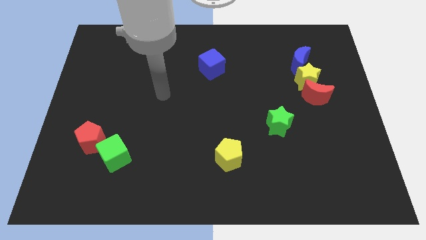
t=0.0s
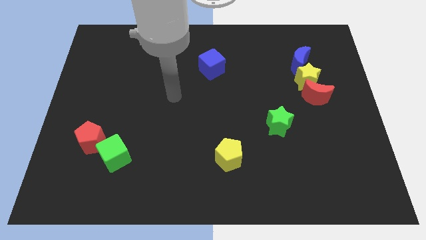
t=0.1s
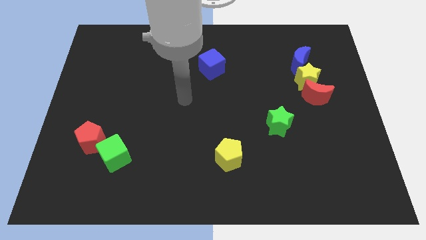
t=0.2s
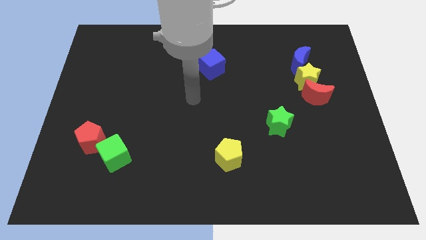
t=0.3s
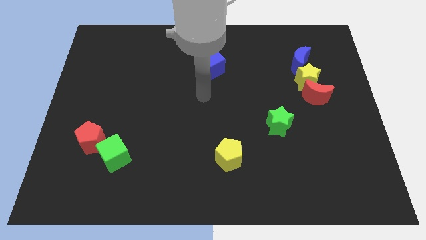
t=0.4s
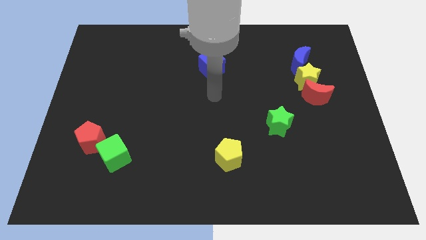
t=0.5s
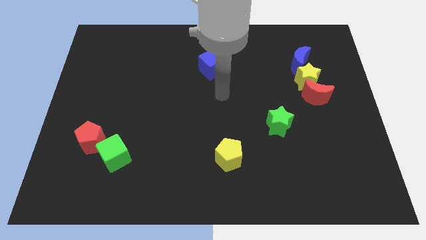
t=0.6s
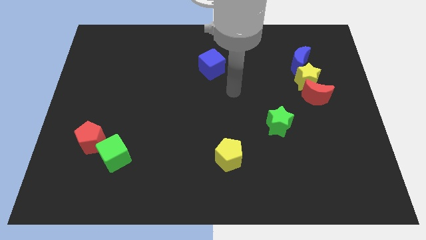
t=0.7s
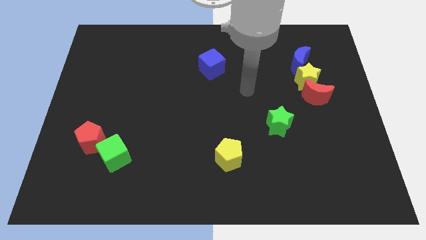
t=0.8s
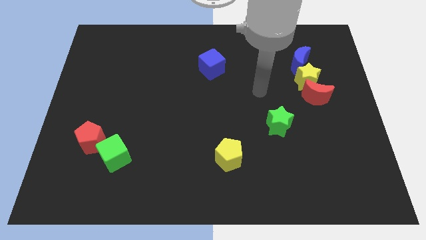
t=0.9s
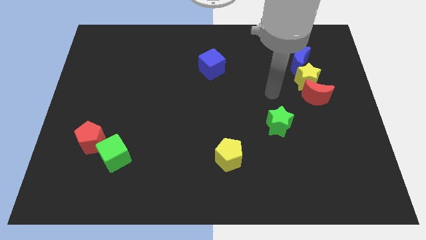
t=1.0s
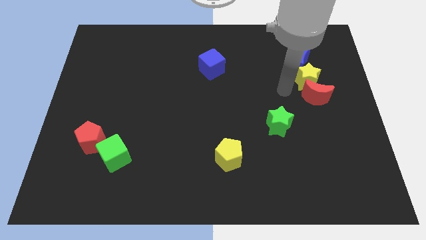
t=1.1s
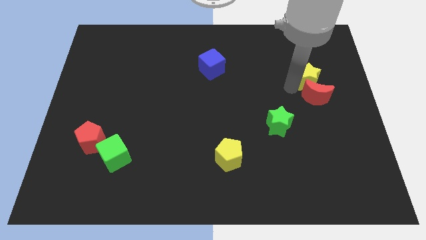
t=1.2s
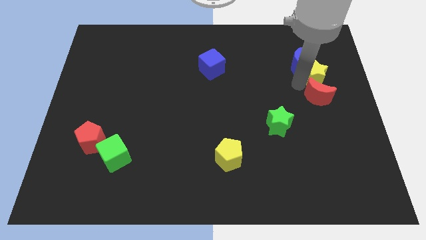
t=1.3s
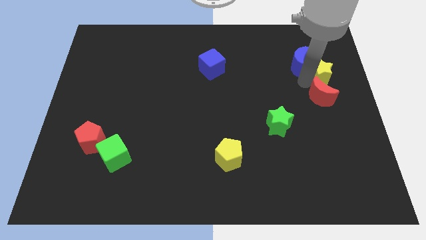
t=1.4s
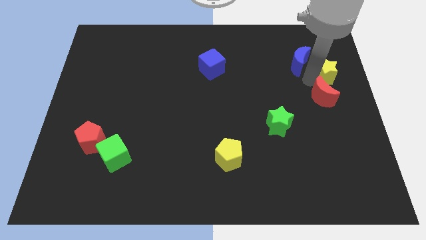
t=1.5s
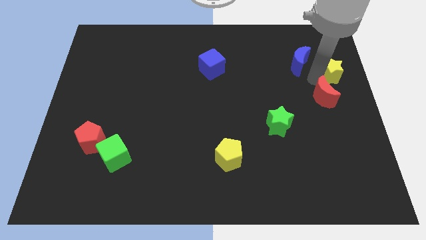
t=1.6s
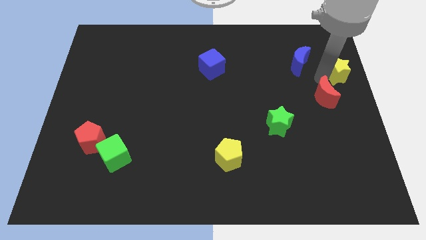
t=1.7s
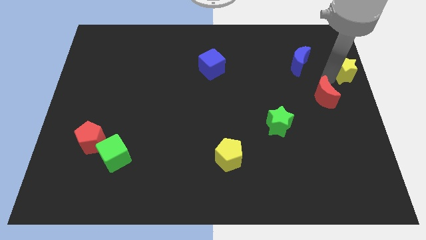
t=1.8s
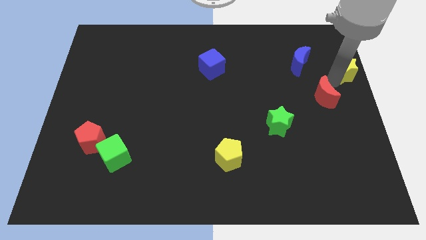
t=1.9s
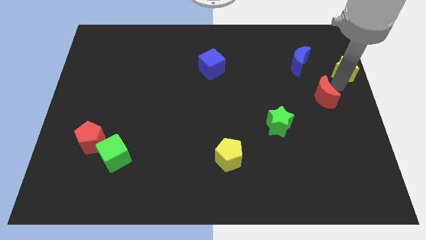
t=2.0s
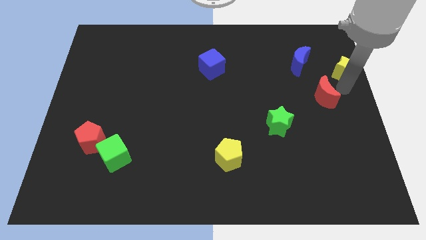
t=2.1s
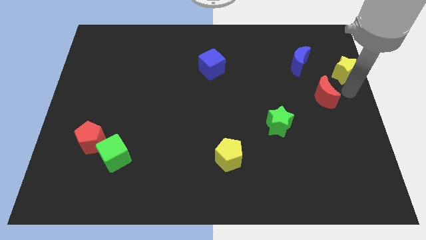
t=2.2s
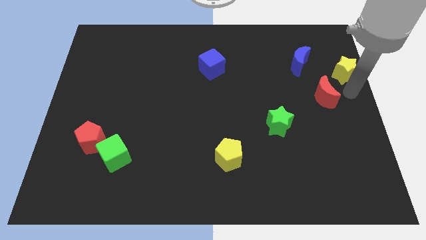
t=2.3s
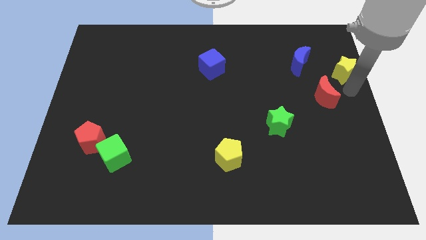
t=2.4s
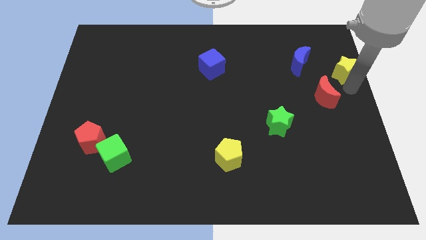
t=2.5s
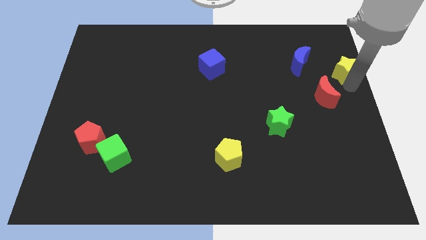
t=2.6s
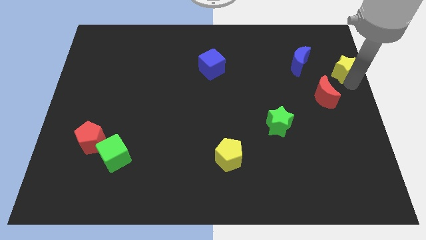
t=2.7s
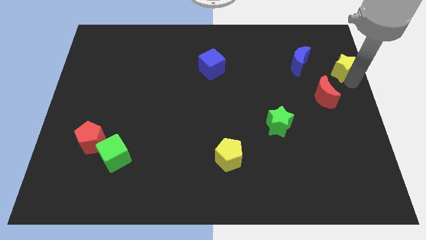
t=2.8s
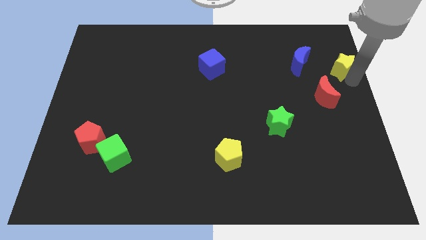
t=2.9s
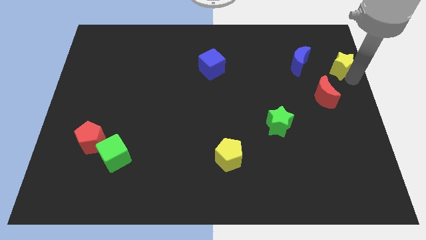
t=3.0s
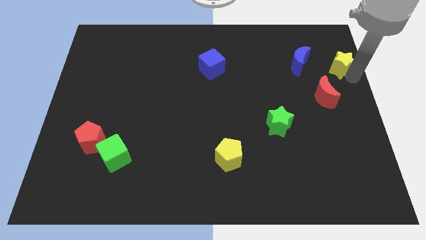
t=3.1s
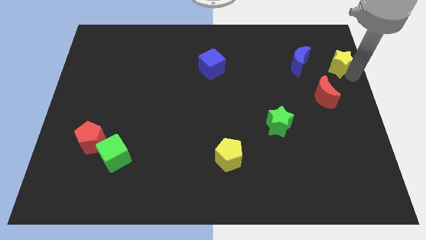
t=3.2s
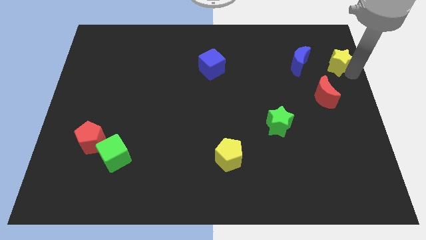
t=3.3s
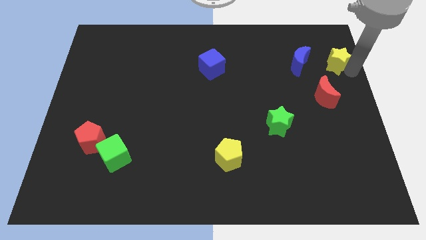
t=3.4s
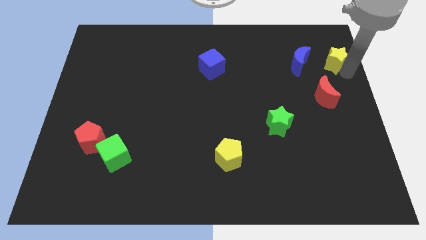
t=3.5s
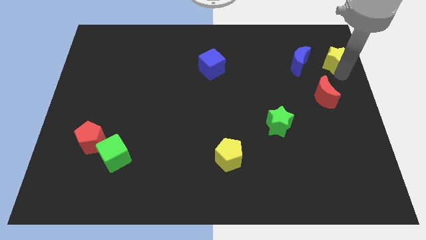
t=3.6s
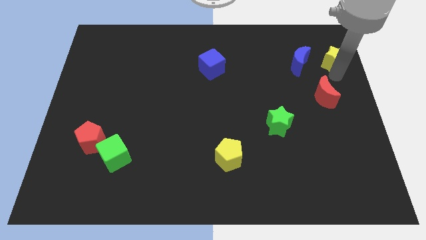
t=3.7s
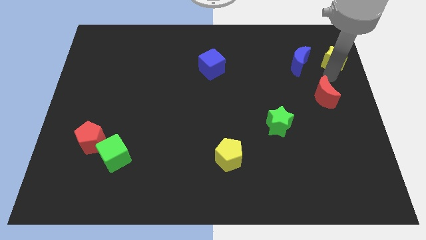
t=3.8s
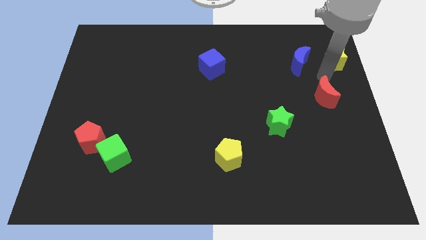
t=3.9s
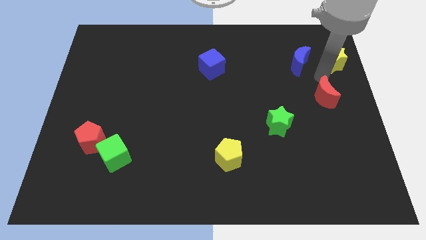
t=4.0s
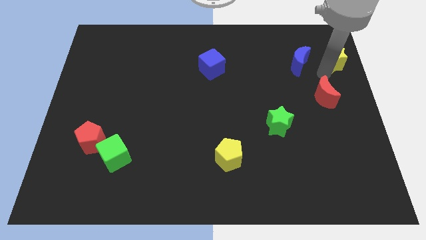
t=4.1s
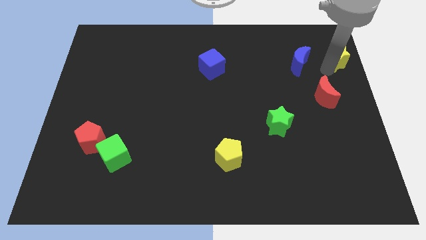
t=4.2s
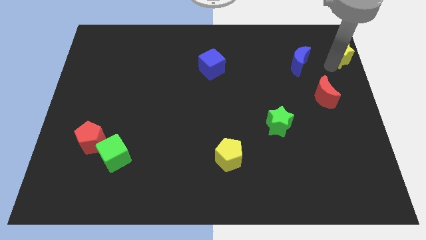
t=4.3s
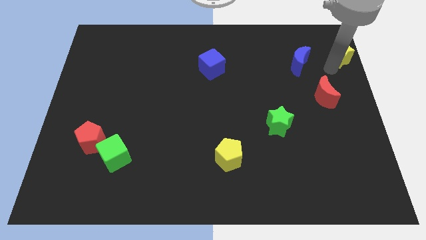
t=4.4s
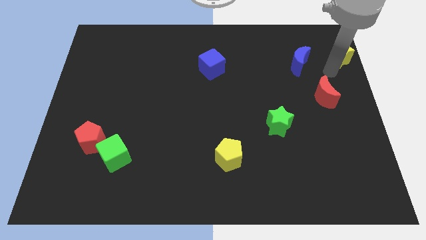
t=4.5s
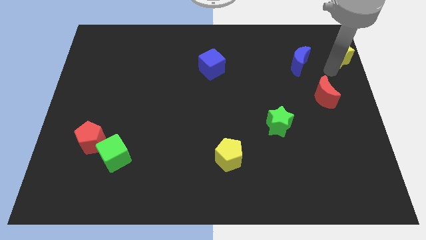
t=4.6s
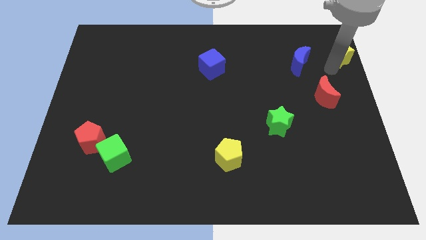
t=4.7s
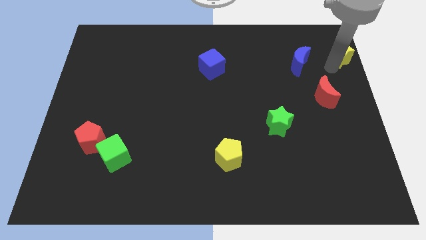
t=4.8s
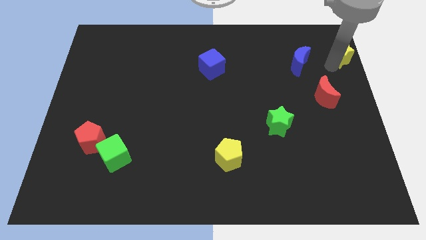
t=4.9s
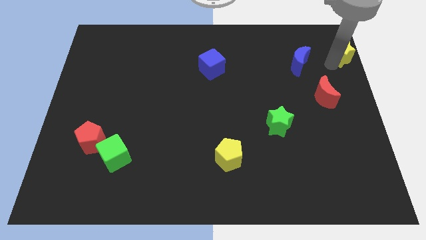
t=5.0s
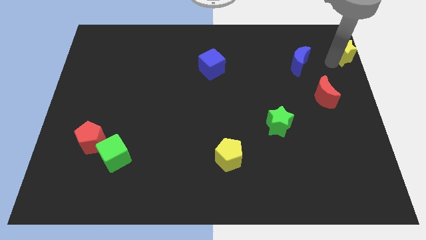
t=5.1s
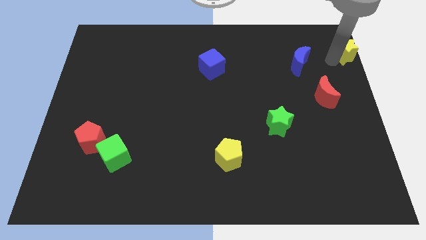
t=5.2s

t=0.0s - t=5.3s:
put the yellow star to the top right of the board

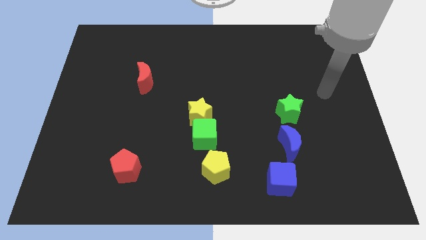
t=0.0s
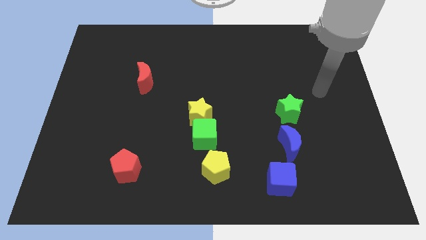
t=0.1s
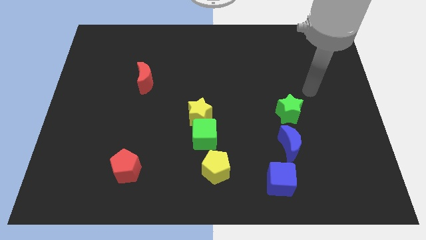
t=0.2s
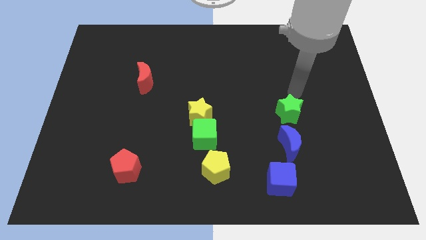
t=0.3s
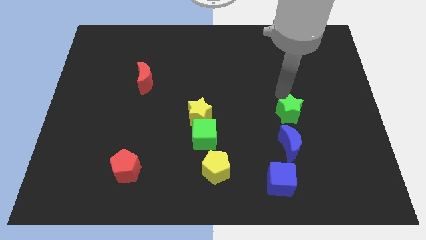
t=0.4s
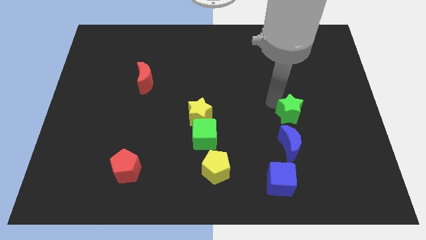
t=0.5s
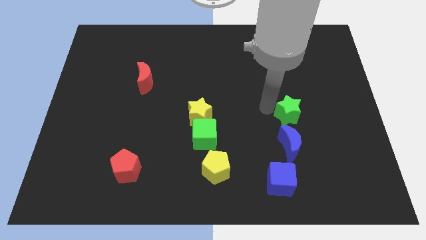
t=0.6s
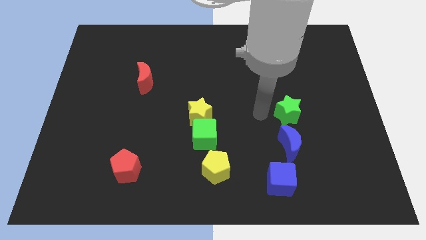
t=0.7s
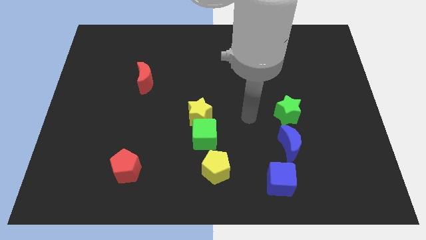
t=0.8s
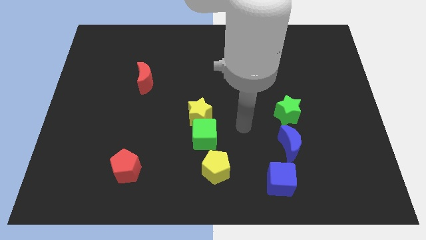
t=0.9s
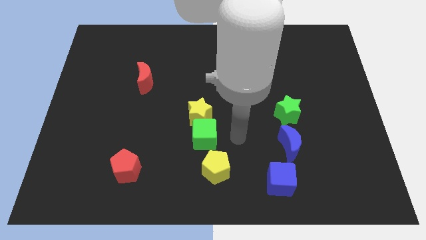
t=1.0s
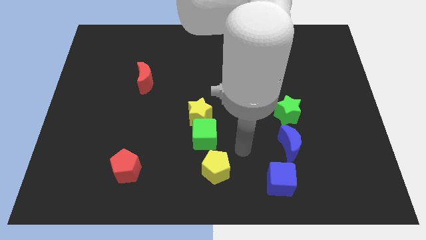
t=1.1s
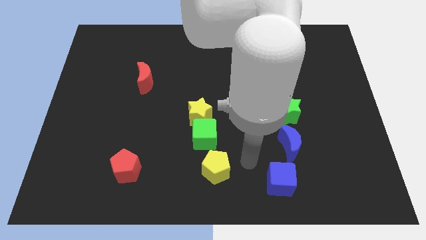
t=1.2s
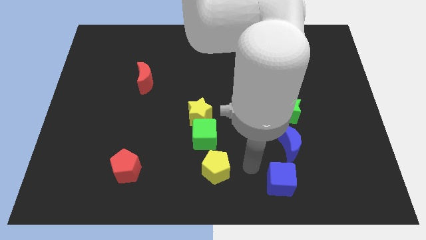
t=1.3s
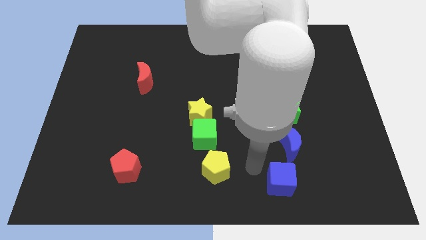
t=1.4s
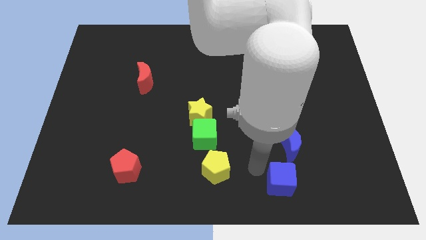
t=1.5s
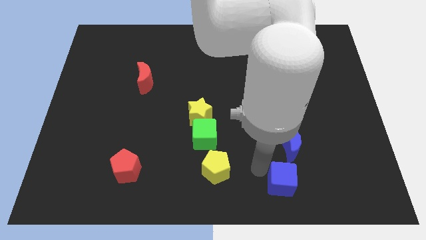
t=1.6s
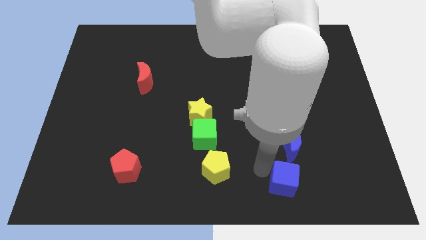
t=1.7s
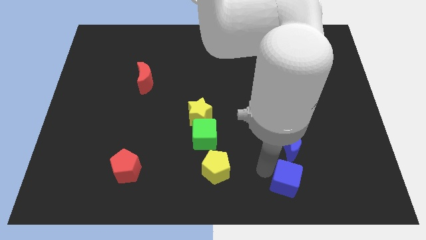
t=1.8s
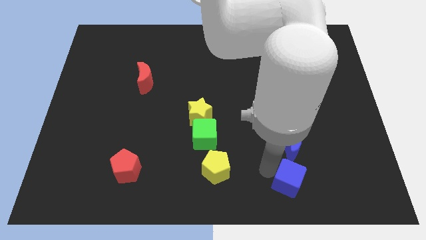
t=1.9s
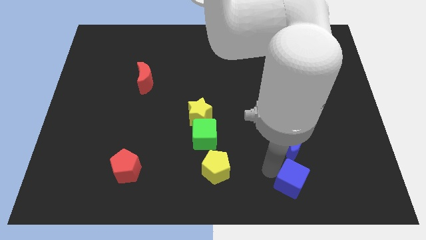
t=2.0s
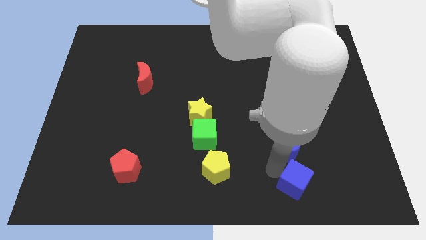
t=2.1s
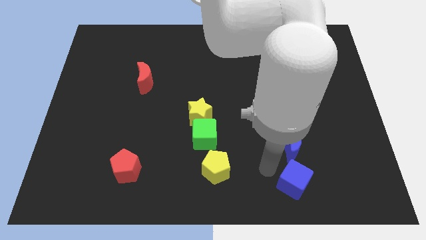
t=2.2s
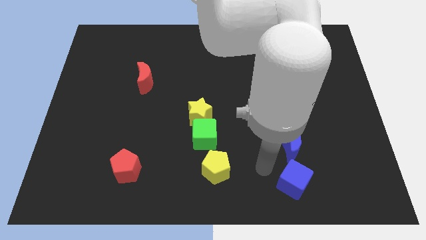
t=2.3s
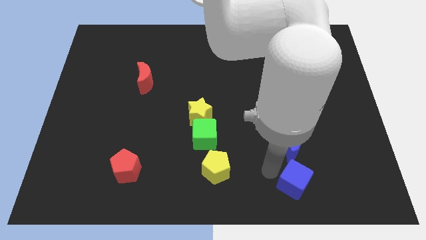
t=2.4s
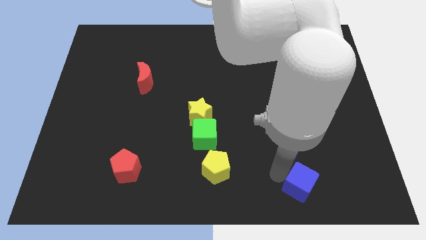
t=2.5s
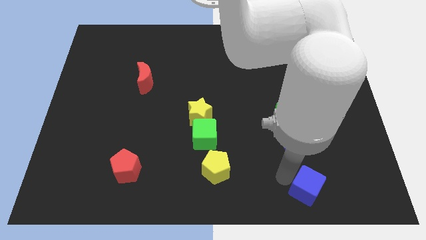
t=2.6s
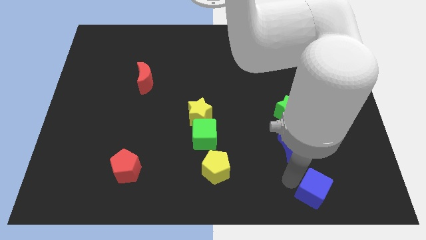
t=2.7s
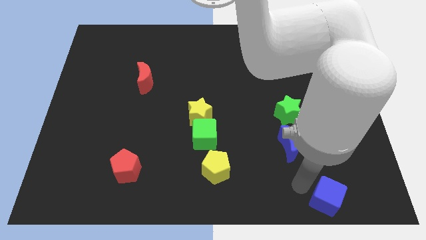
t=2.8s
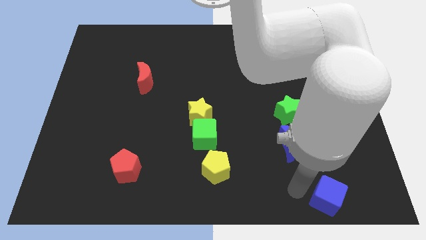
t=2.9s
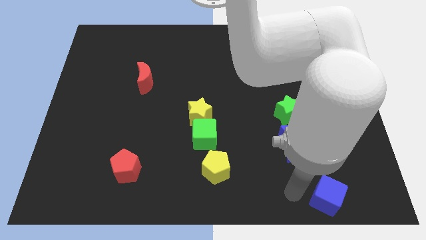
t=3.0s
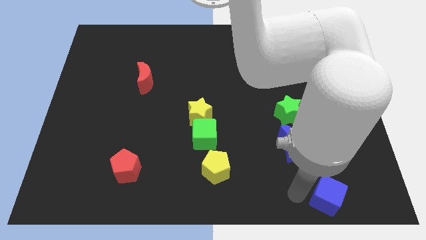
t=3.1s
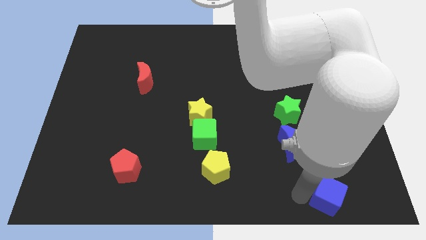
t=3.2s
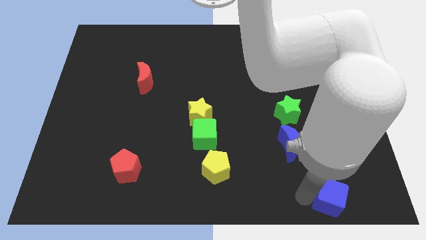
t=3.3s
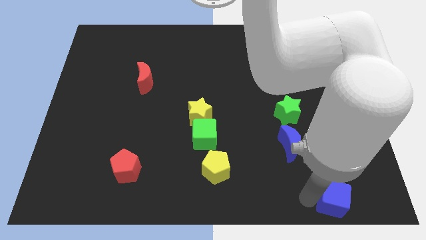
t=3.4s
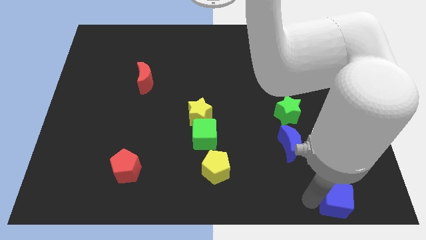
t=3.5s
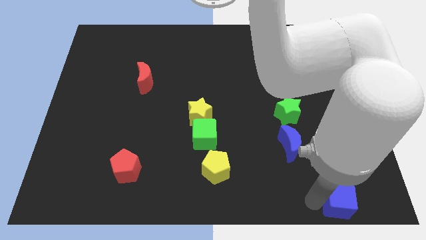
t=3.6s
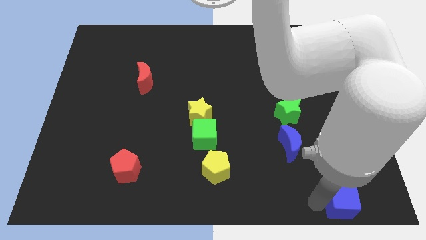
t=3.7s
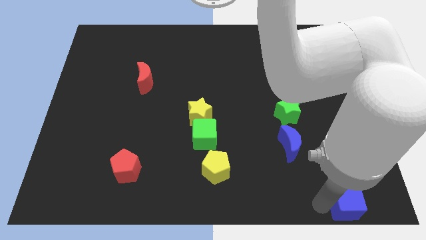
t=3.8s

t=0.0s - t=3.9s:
slide the blue cube to the bottom right corner
